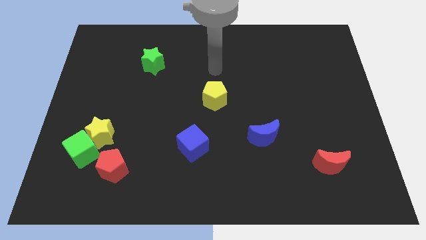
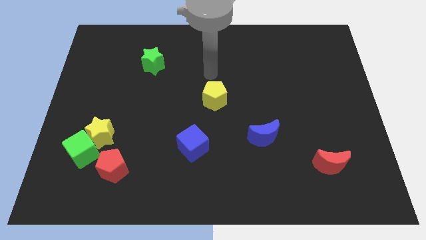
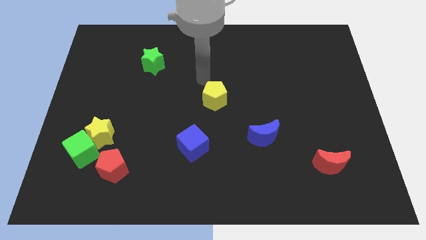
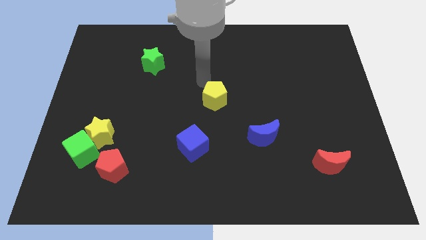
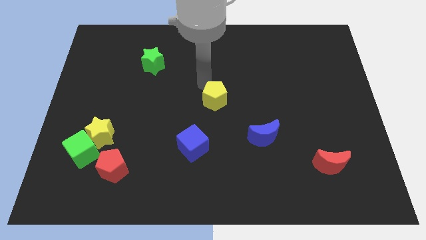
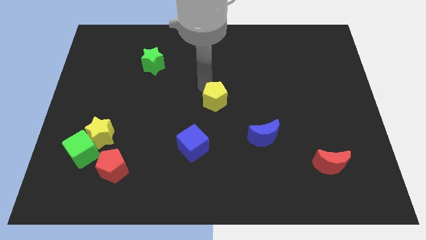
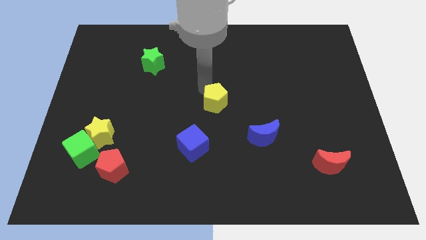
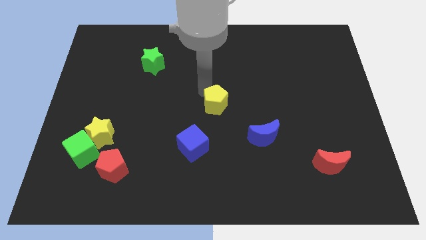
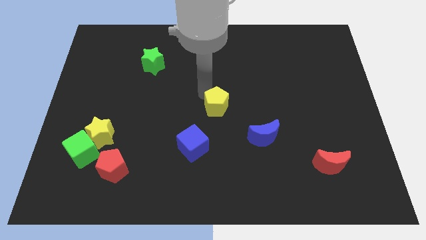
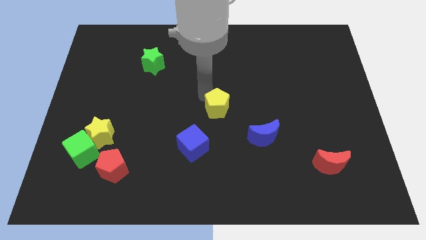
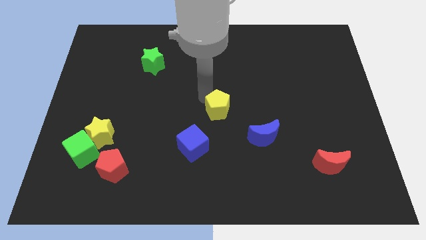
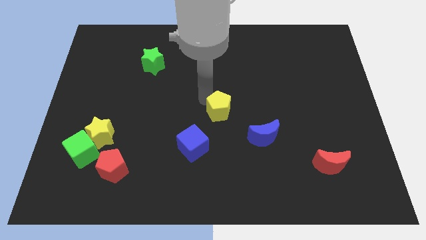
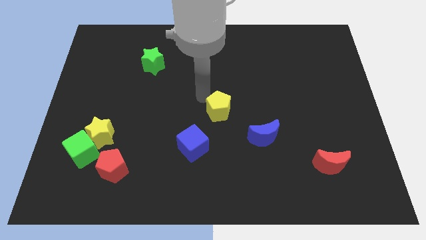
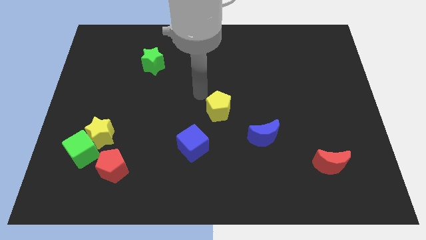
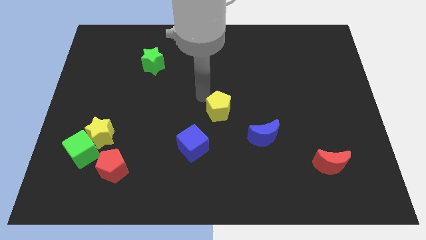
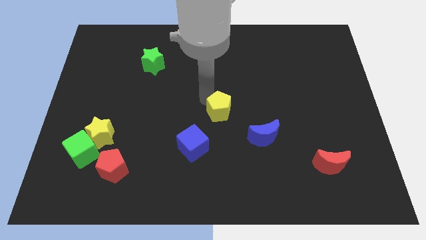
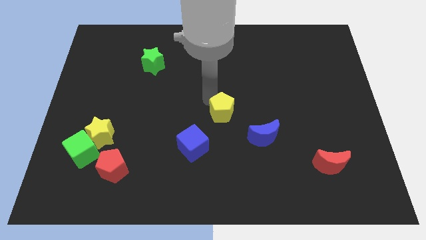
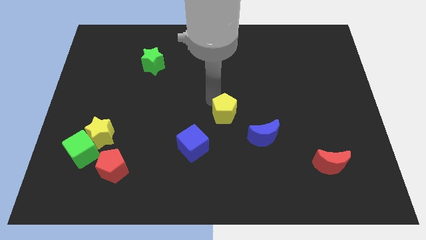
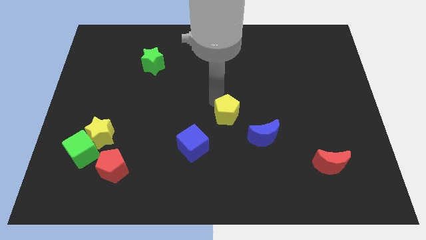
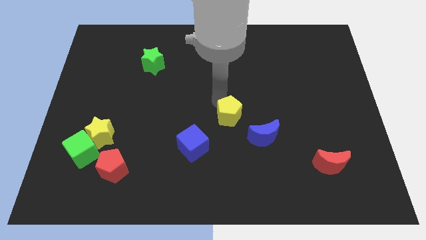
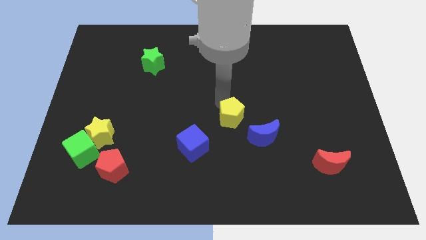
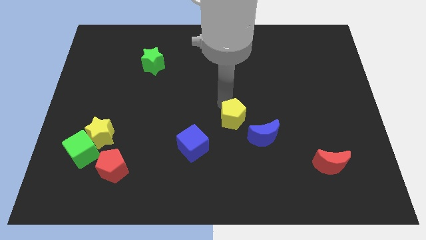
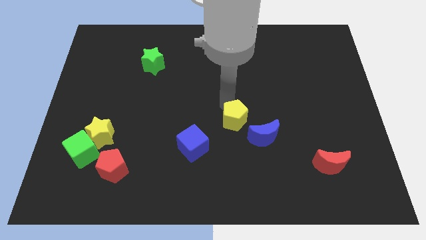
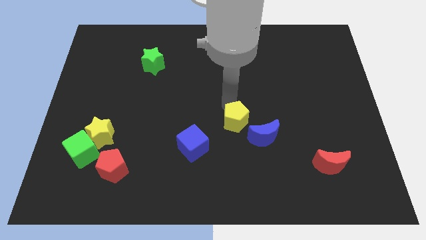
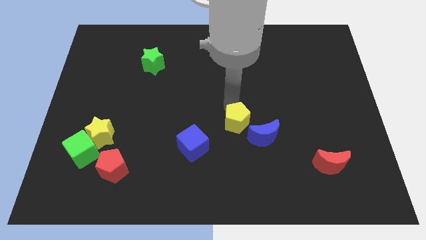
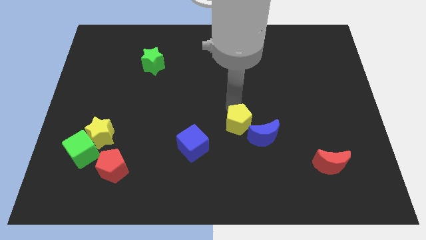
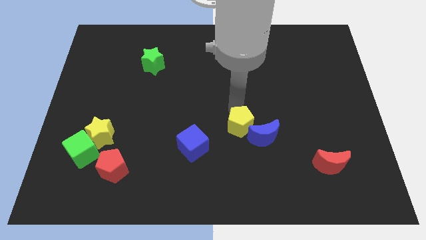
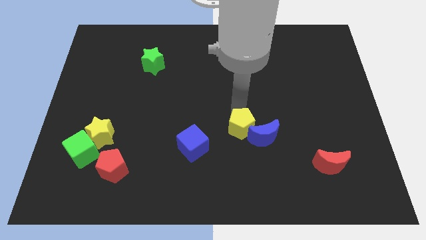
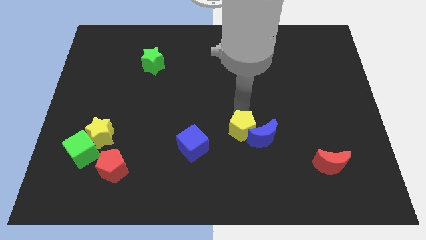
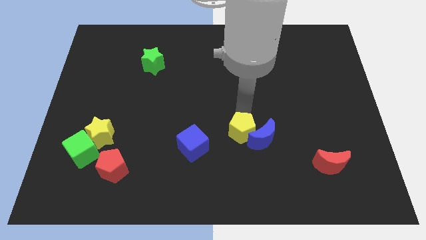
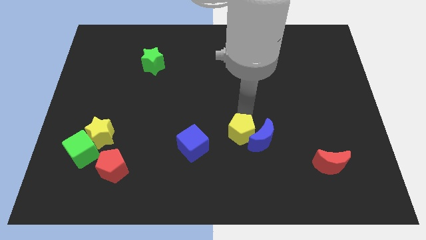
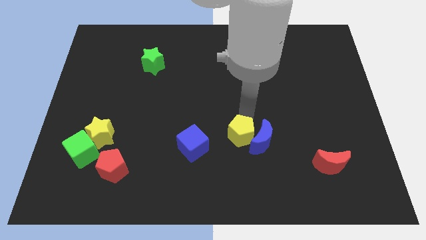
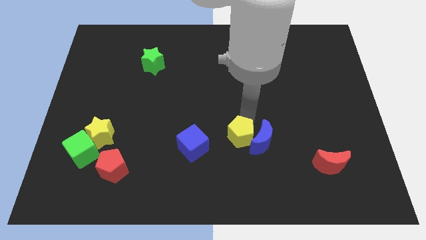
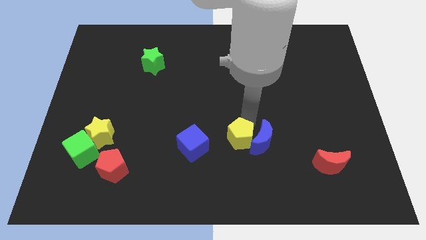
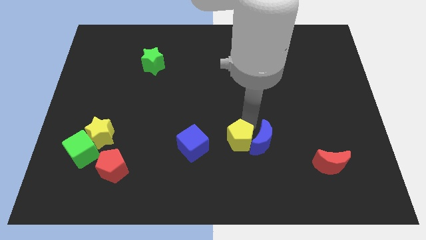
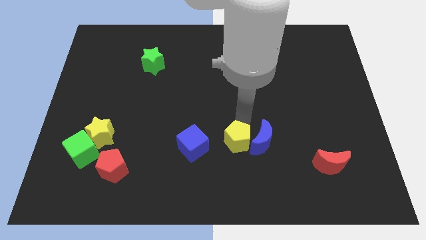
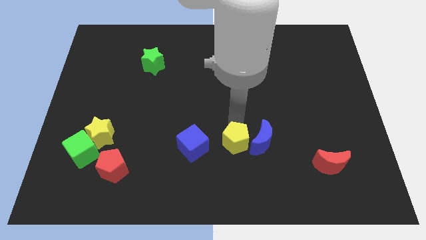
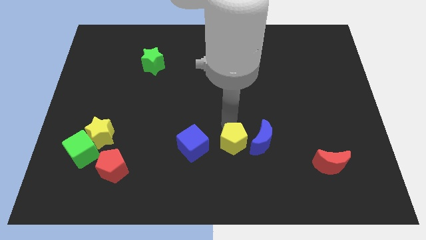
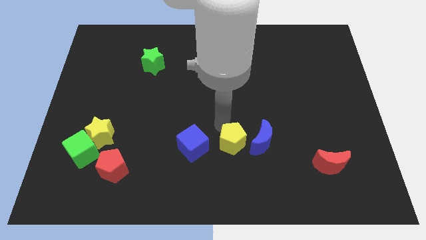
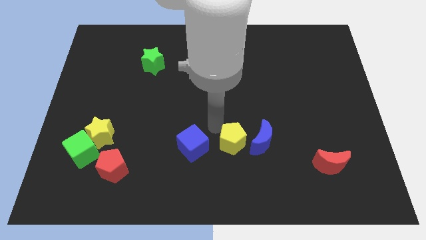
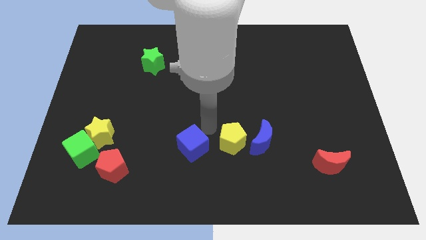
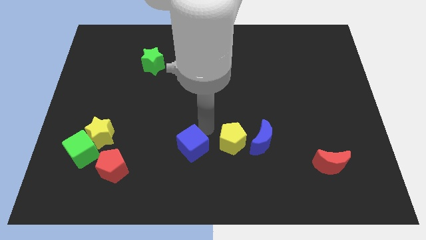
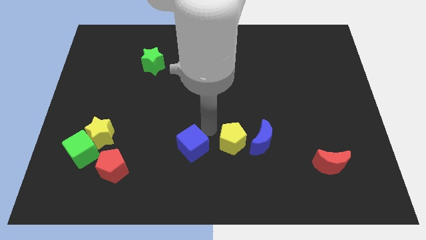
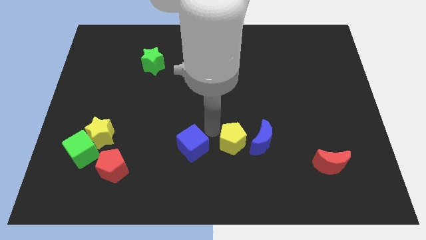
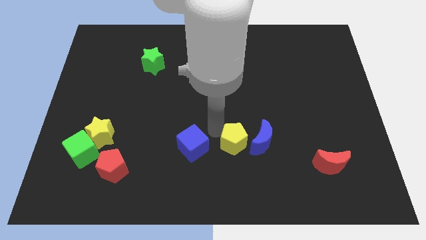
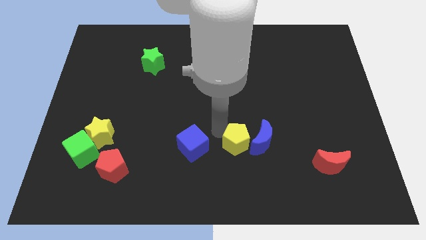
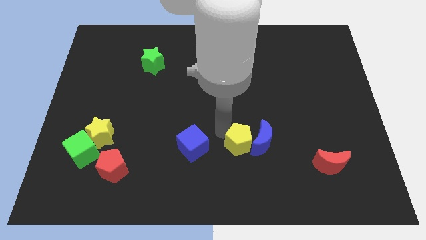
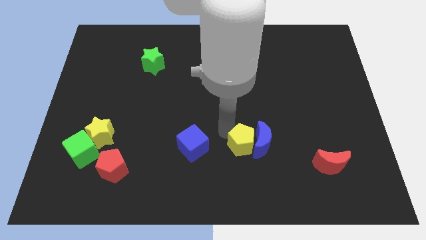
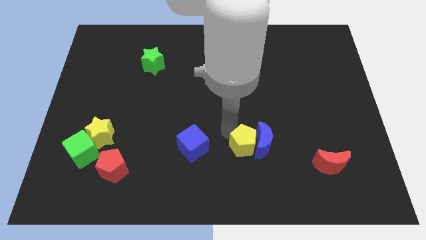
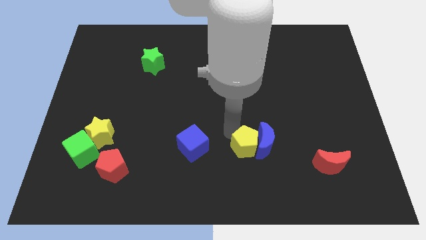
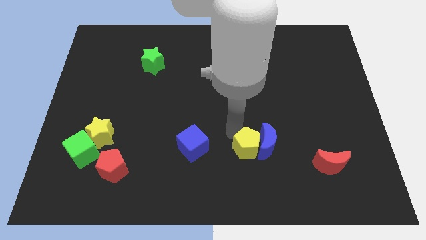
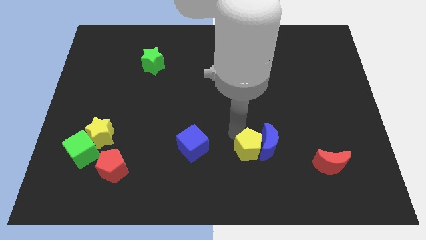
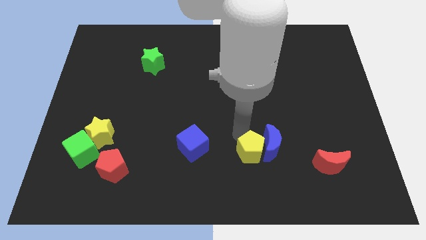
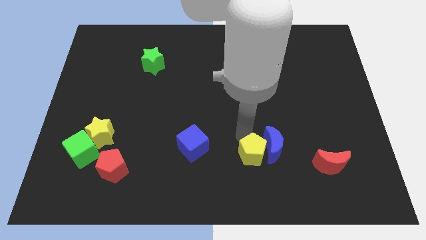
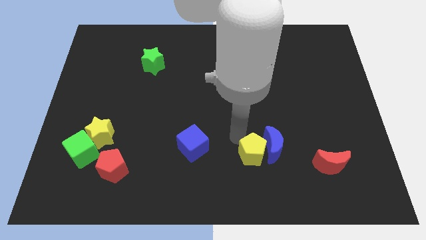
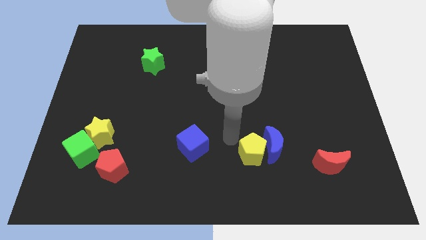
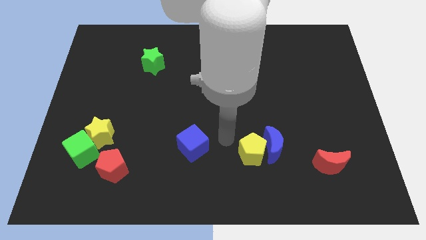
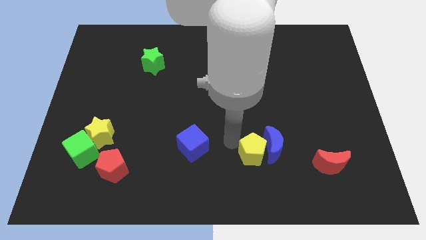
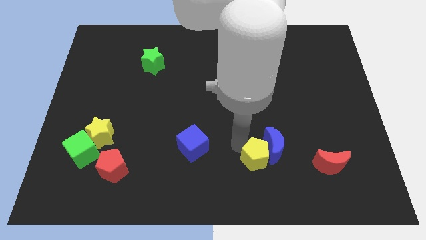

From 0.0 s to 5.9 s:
slide the yellow pentagon just left of the red moon

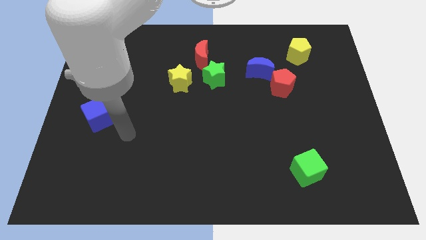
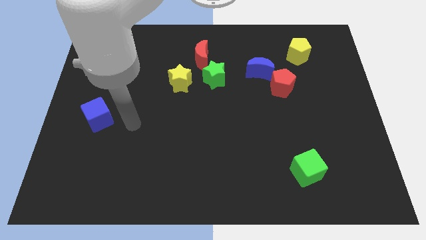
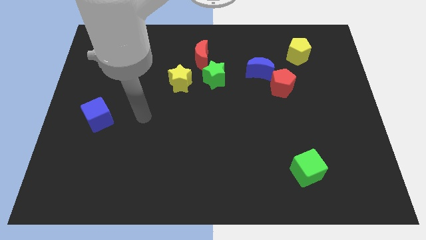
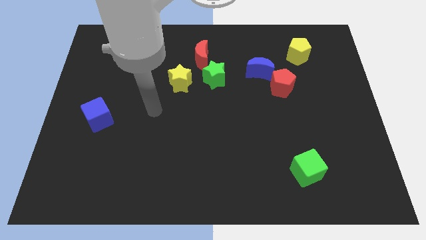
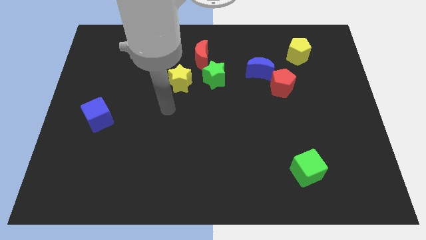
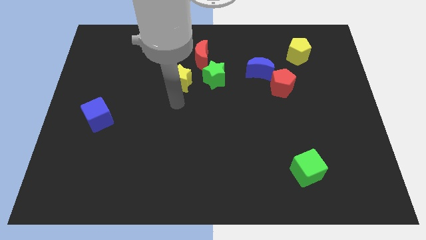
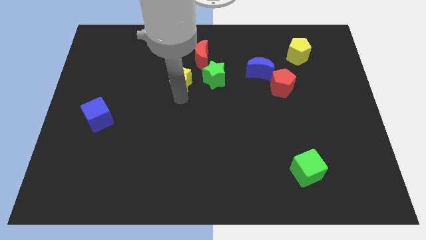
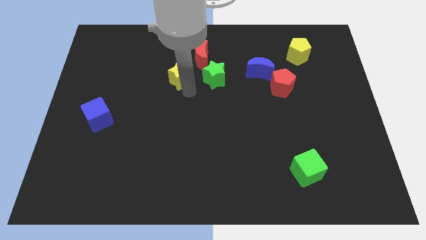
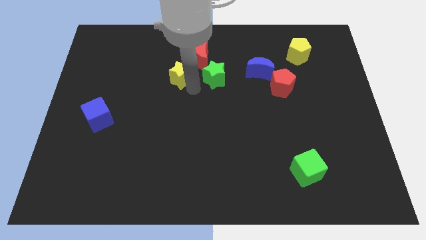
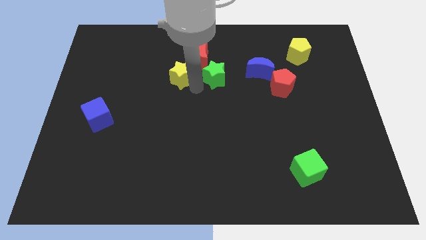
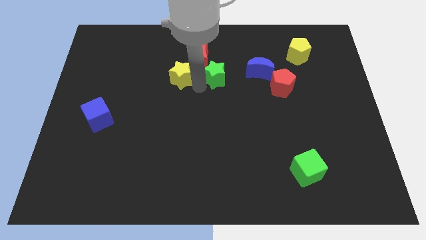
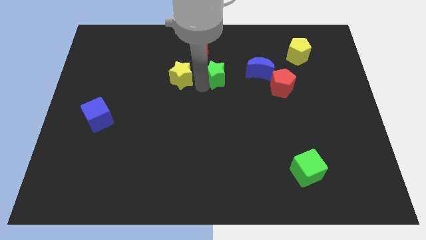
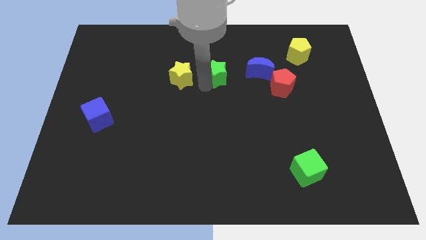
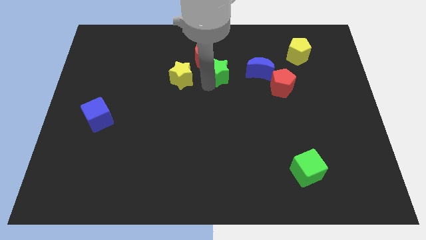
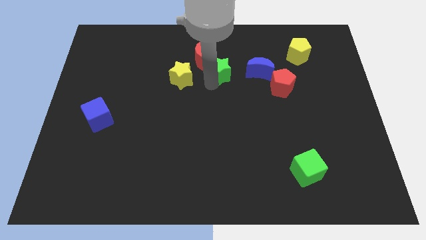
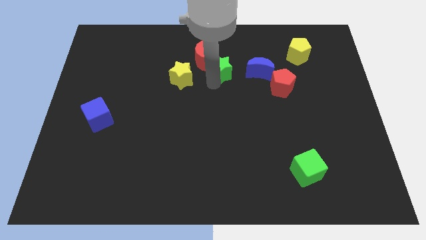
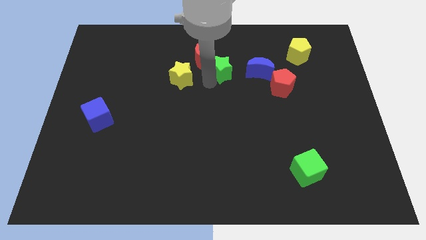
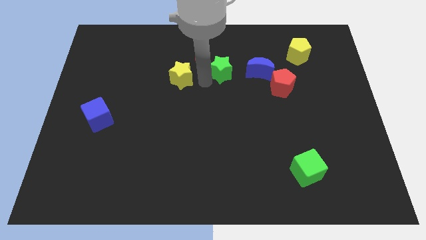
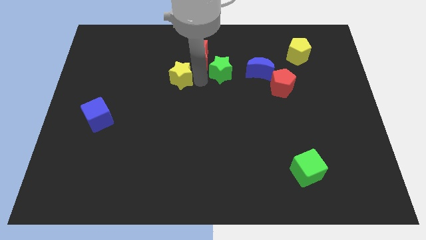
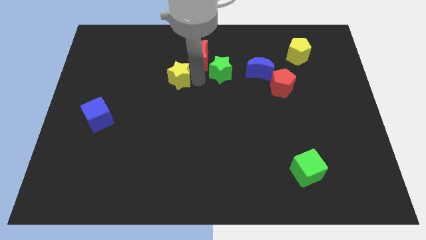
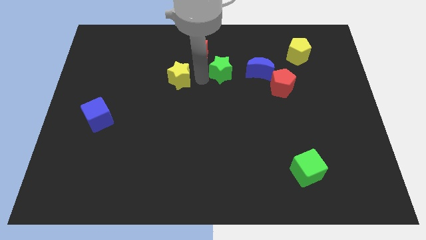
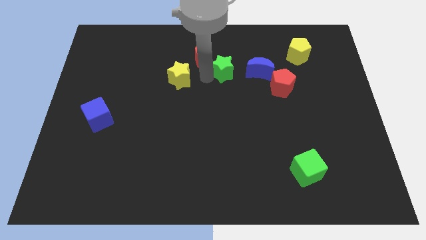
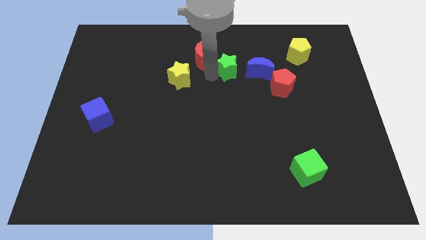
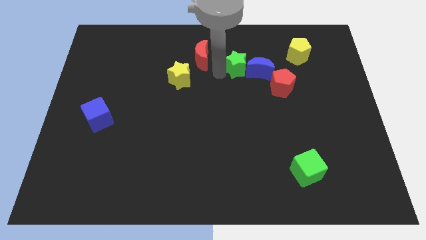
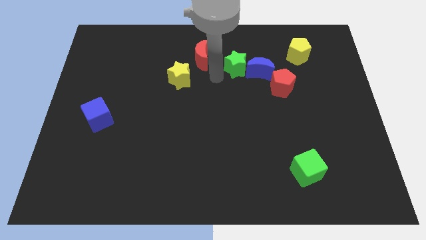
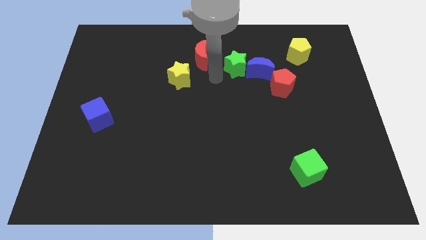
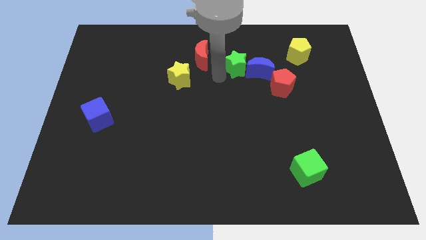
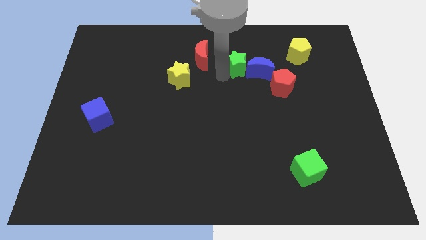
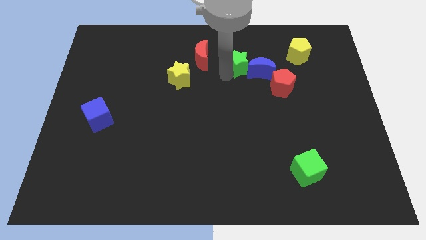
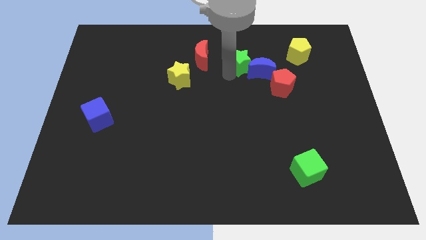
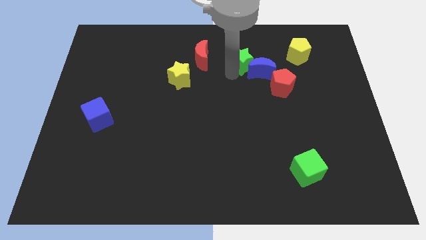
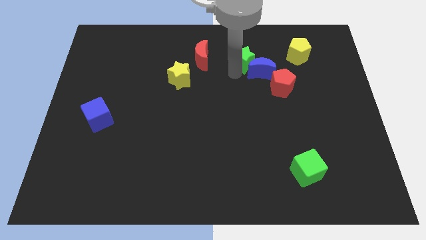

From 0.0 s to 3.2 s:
push the green star left of the yellow pentagon
